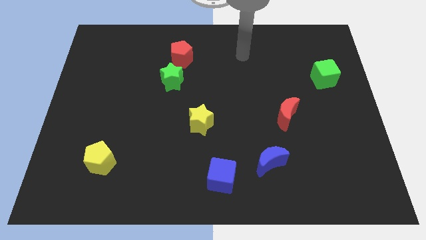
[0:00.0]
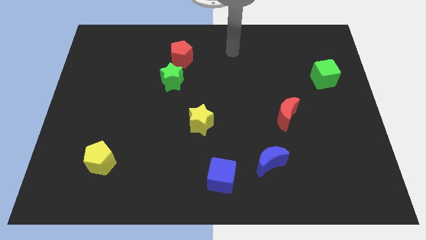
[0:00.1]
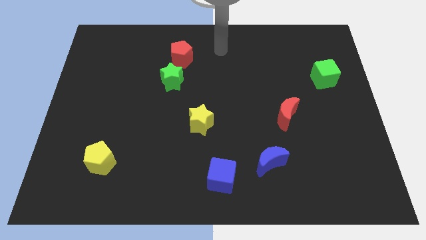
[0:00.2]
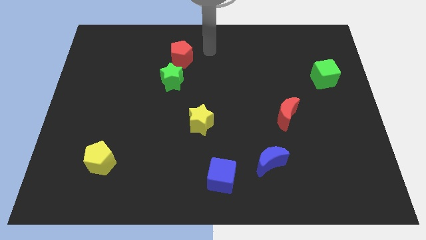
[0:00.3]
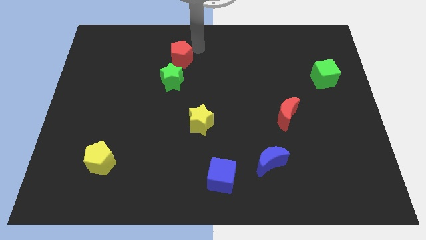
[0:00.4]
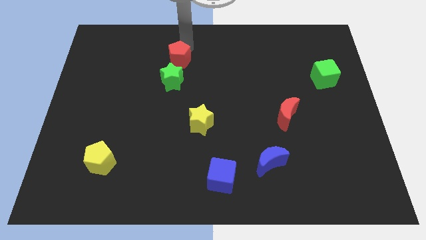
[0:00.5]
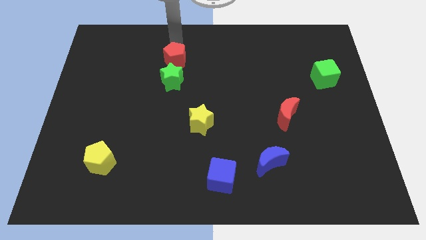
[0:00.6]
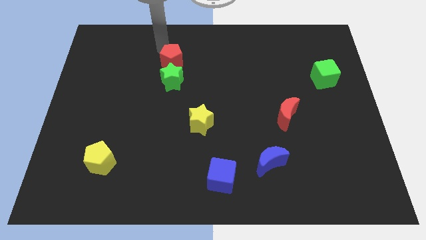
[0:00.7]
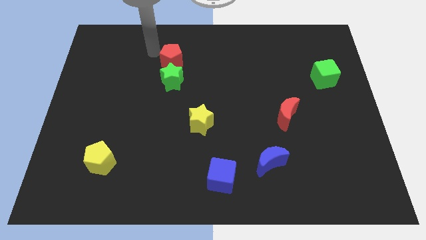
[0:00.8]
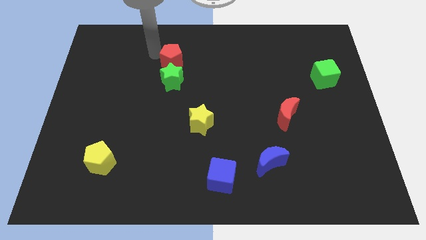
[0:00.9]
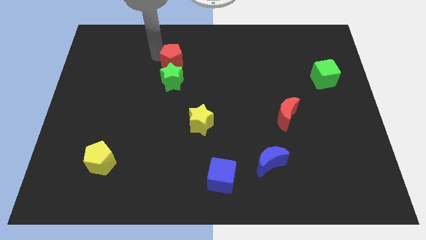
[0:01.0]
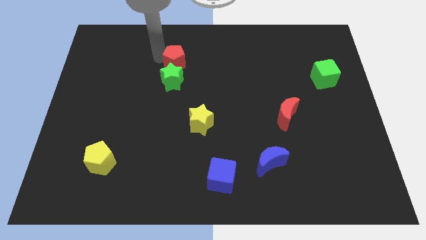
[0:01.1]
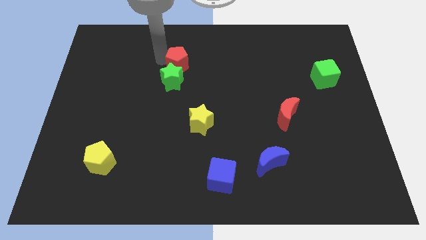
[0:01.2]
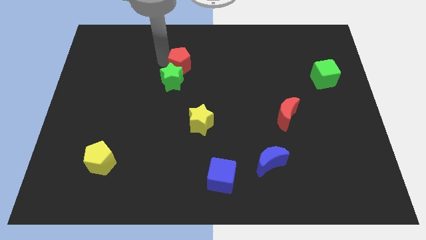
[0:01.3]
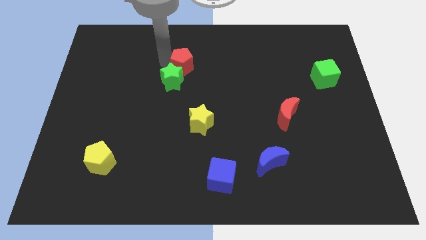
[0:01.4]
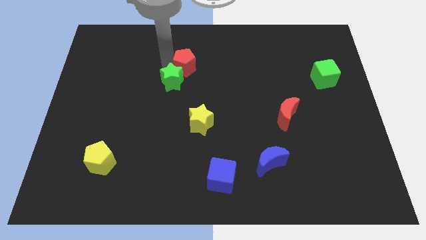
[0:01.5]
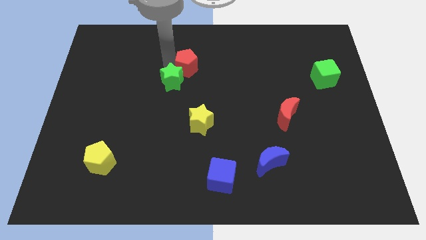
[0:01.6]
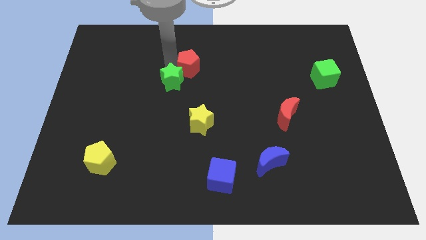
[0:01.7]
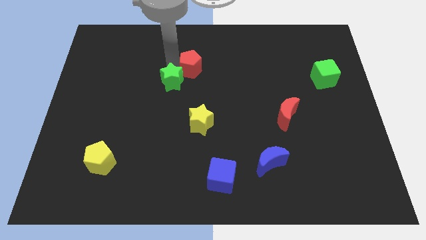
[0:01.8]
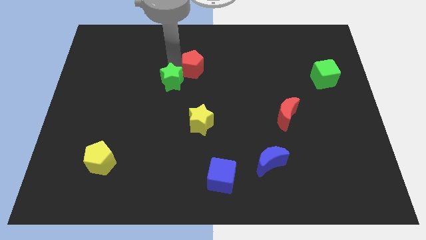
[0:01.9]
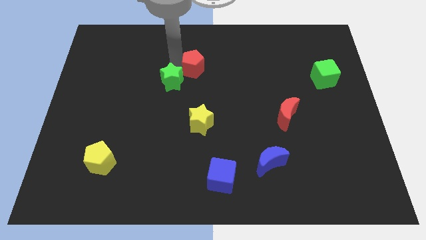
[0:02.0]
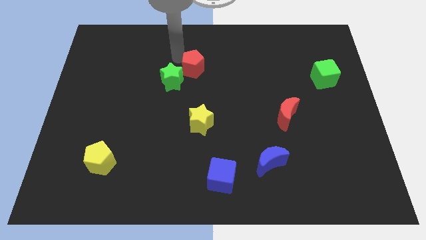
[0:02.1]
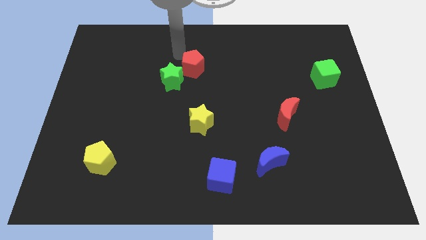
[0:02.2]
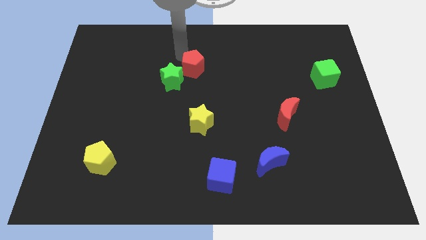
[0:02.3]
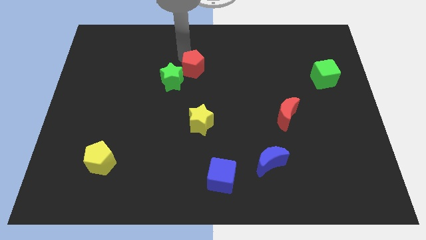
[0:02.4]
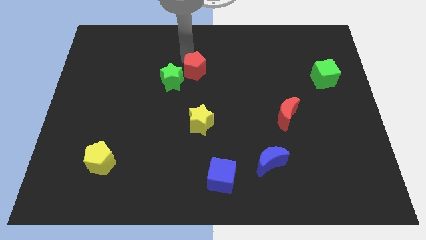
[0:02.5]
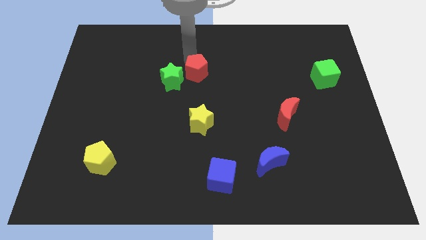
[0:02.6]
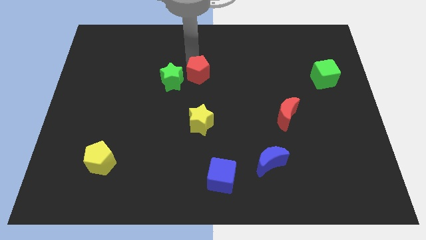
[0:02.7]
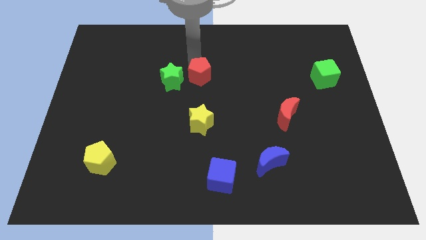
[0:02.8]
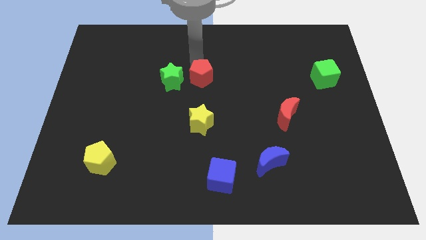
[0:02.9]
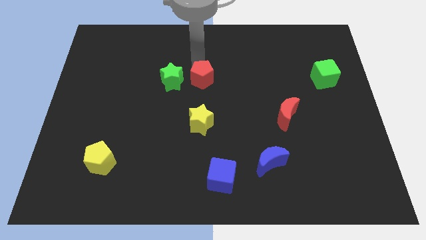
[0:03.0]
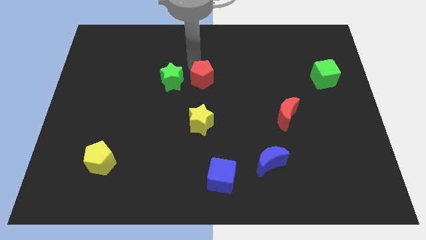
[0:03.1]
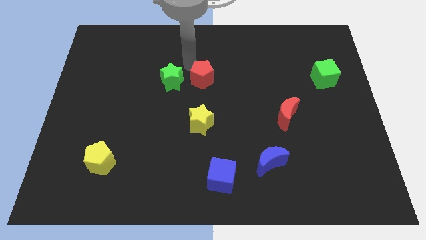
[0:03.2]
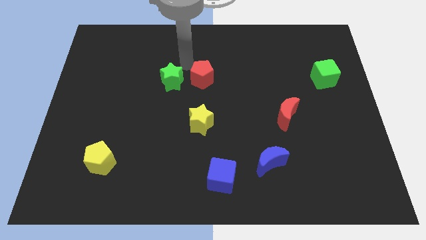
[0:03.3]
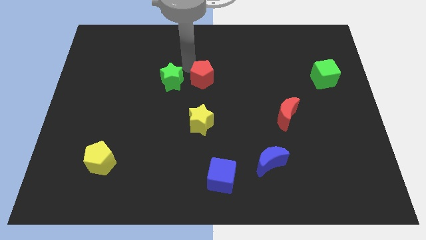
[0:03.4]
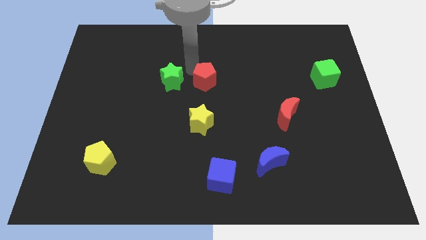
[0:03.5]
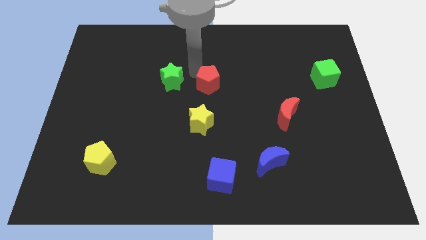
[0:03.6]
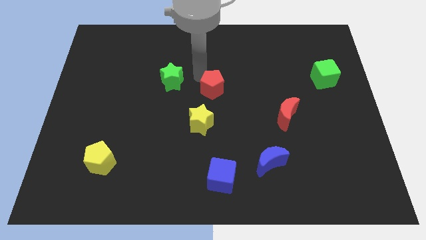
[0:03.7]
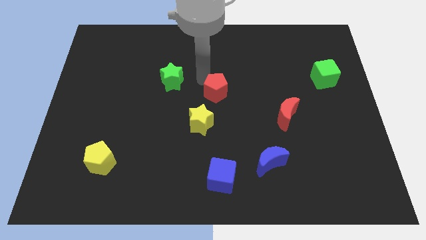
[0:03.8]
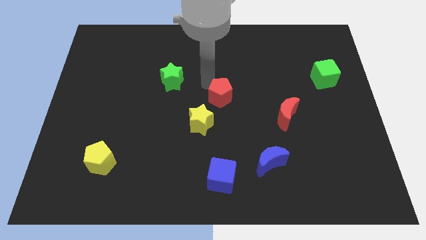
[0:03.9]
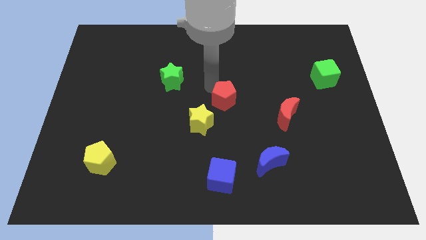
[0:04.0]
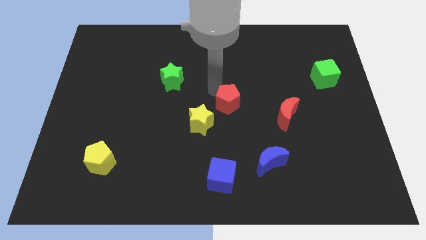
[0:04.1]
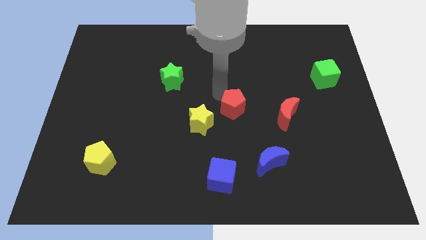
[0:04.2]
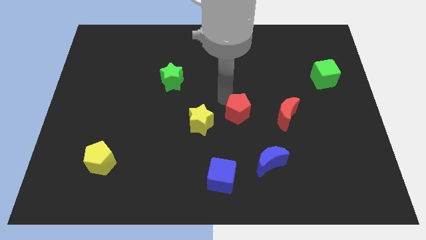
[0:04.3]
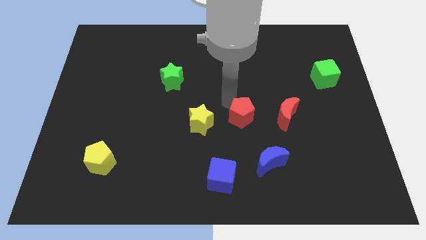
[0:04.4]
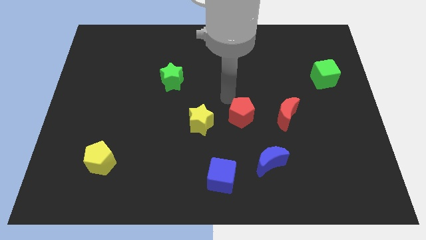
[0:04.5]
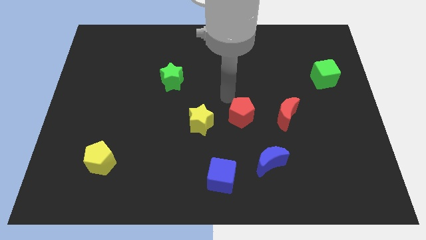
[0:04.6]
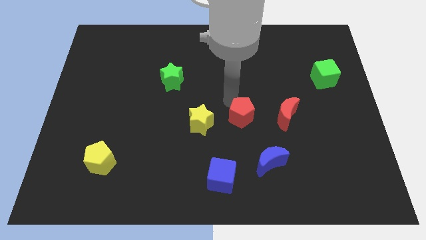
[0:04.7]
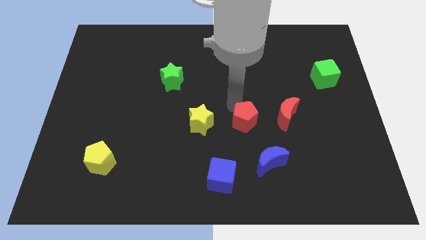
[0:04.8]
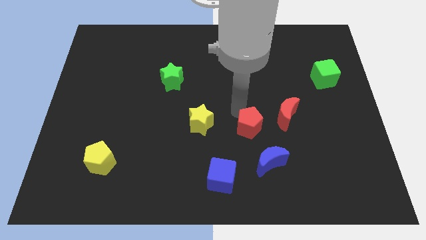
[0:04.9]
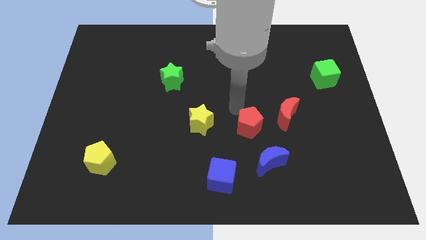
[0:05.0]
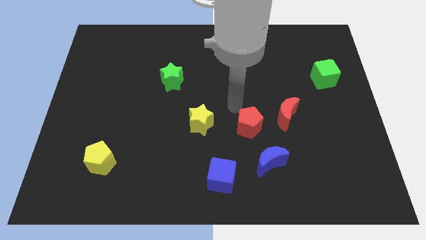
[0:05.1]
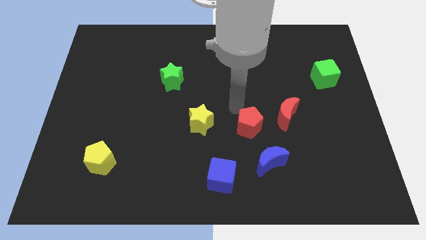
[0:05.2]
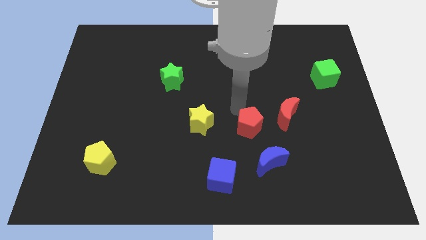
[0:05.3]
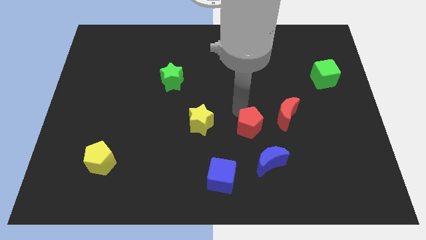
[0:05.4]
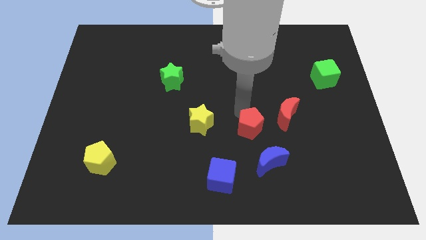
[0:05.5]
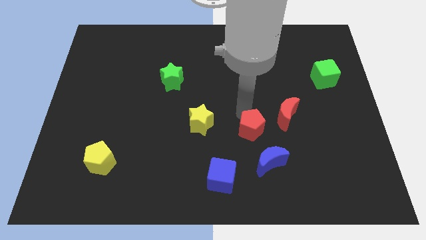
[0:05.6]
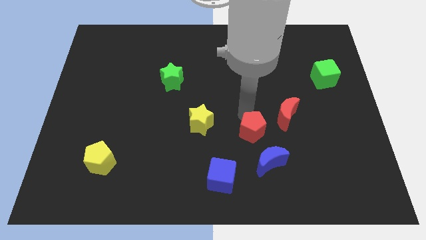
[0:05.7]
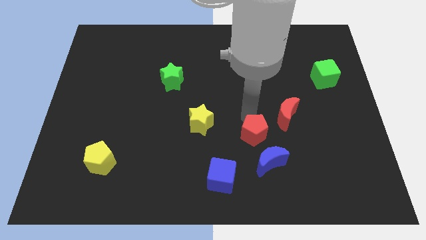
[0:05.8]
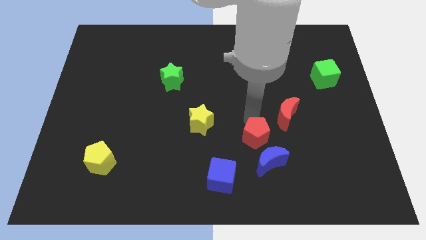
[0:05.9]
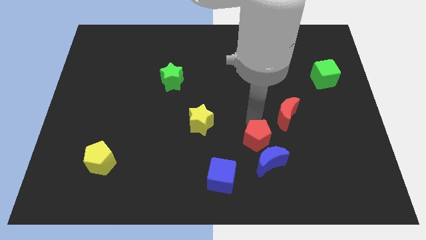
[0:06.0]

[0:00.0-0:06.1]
move the red pentagon close to the blue moon
